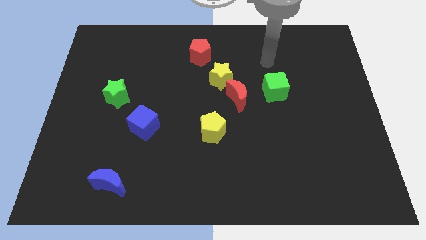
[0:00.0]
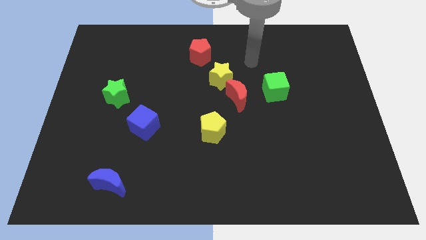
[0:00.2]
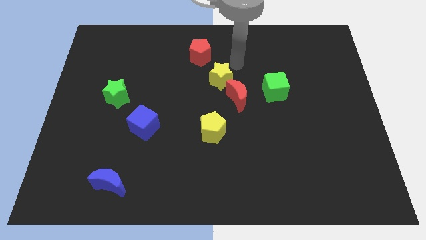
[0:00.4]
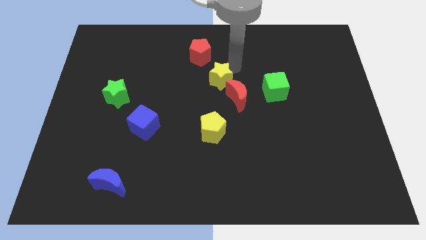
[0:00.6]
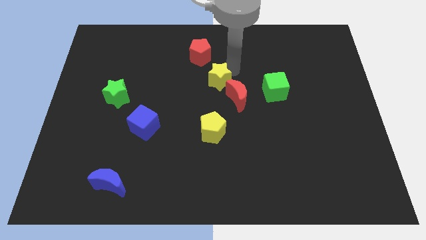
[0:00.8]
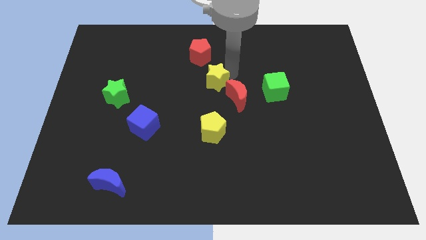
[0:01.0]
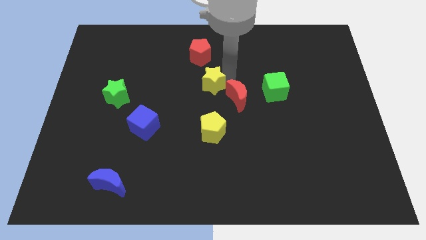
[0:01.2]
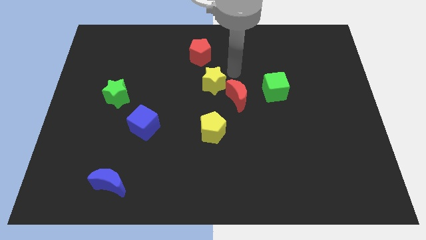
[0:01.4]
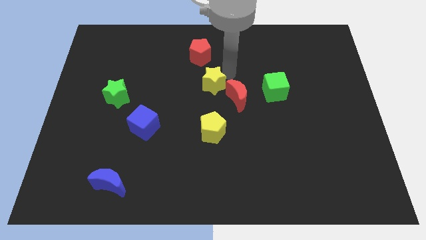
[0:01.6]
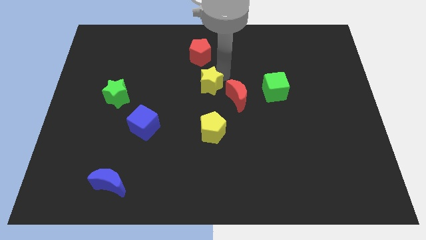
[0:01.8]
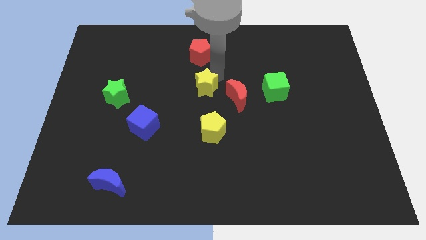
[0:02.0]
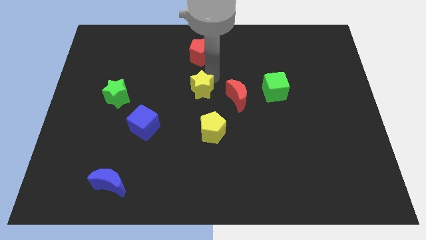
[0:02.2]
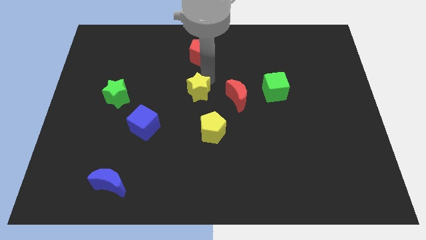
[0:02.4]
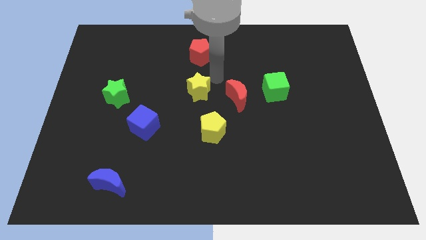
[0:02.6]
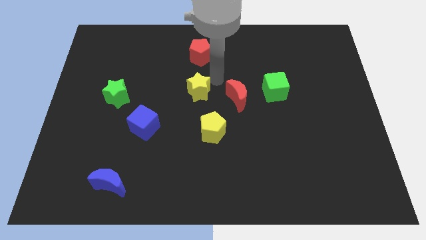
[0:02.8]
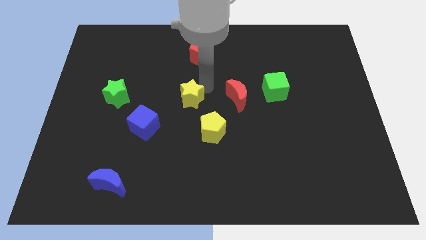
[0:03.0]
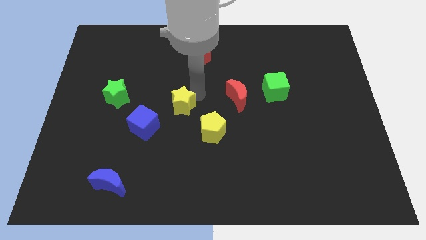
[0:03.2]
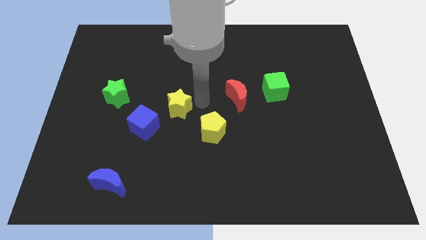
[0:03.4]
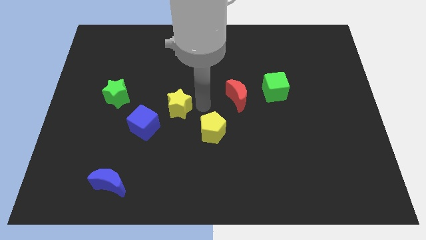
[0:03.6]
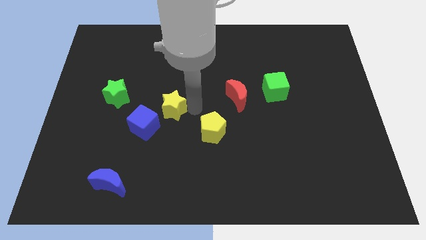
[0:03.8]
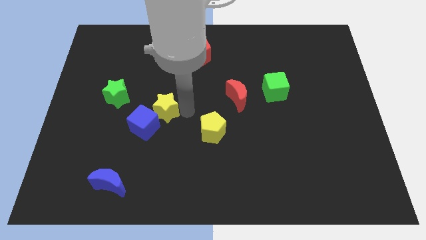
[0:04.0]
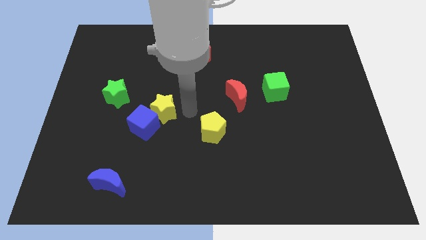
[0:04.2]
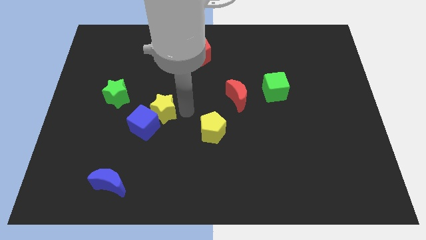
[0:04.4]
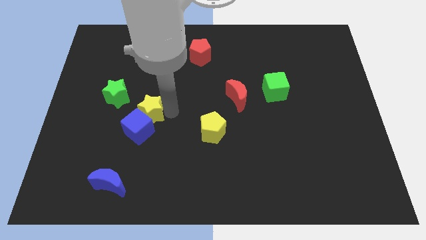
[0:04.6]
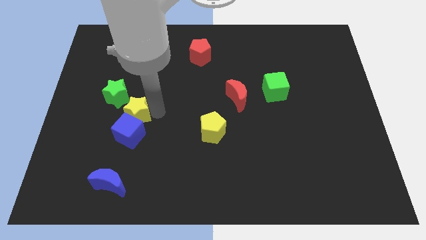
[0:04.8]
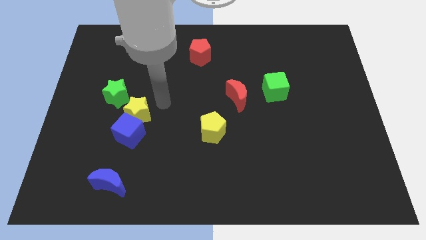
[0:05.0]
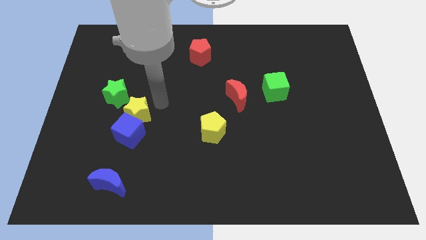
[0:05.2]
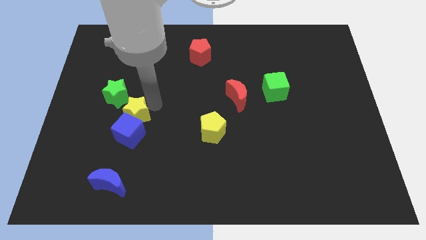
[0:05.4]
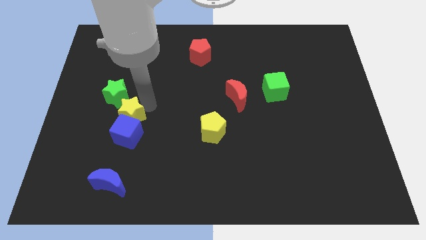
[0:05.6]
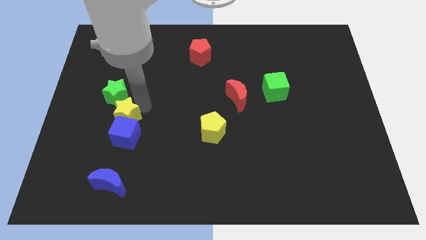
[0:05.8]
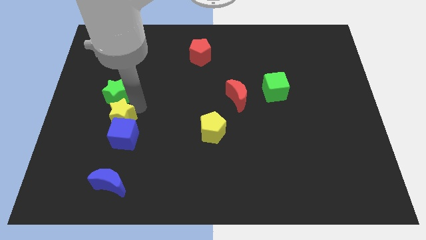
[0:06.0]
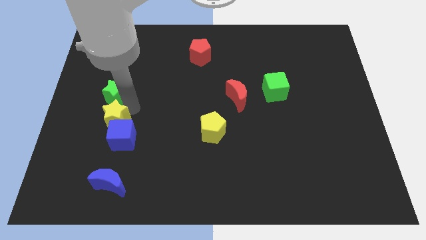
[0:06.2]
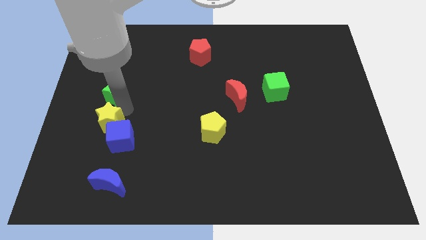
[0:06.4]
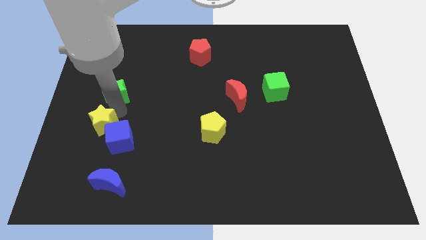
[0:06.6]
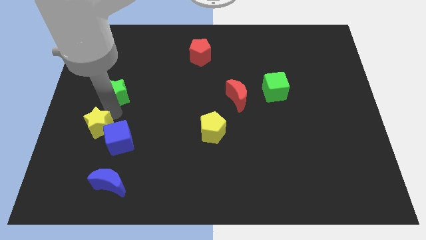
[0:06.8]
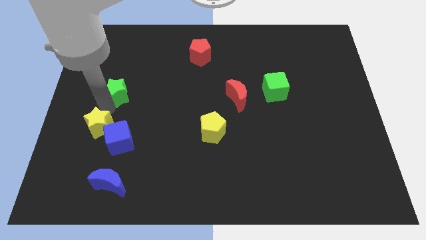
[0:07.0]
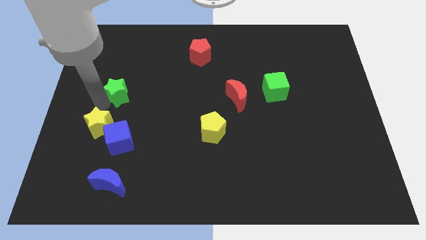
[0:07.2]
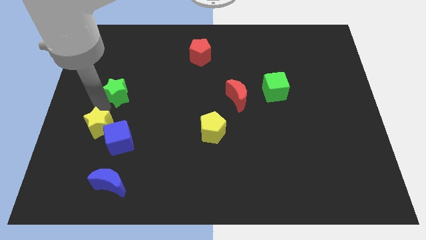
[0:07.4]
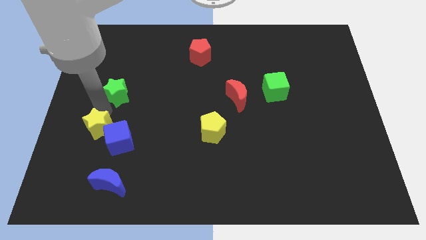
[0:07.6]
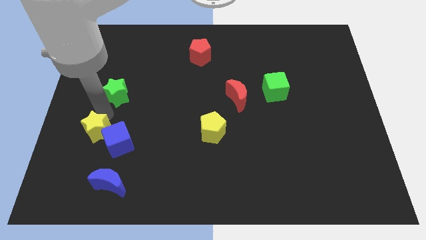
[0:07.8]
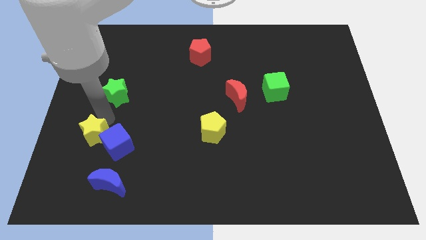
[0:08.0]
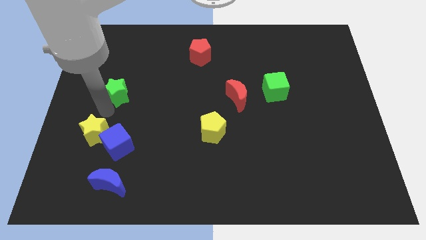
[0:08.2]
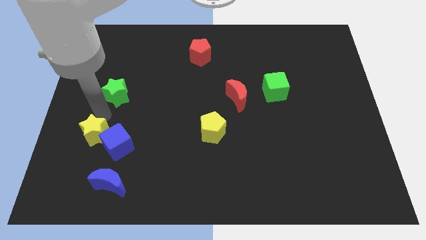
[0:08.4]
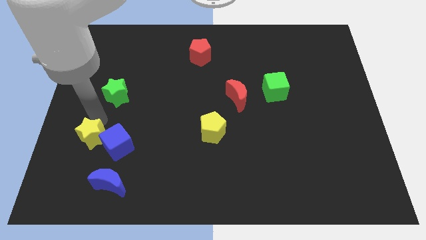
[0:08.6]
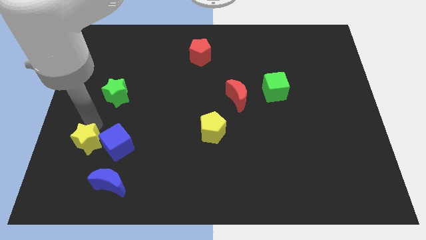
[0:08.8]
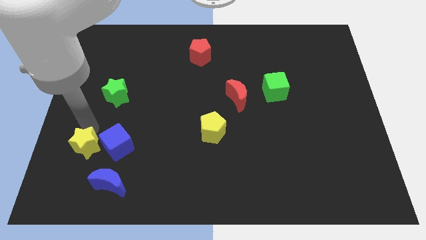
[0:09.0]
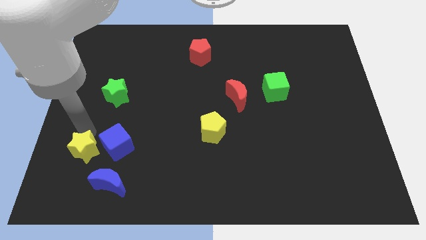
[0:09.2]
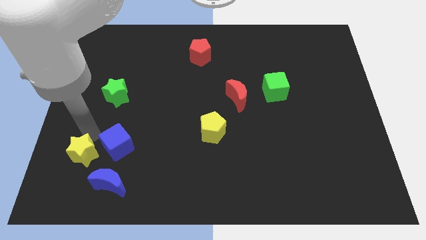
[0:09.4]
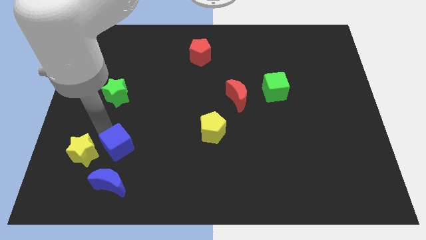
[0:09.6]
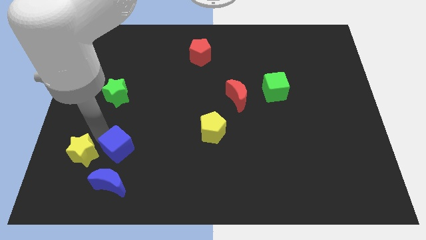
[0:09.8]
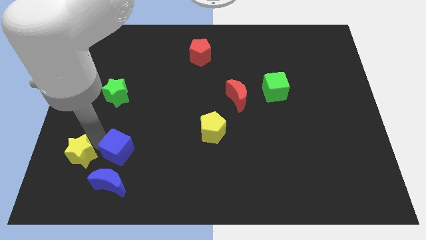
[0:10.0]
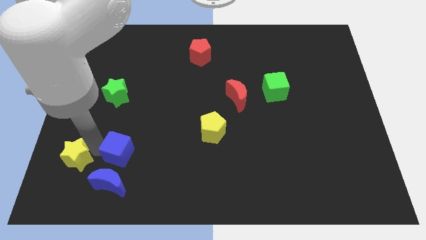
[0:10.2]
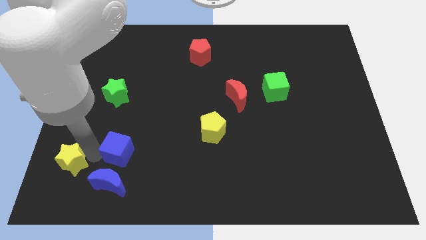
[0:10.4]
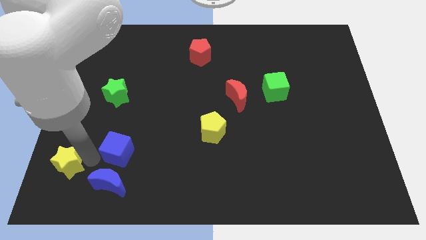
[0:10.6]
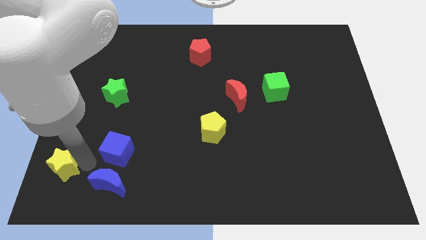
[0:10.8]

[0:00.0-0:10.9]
put the yellow star to the bottom left corner

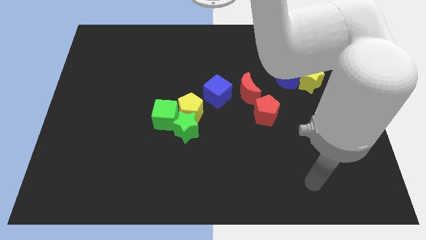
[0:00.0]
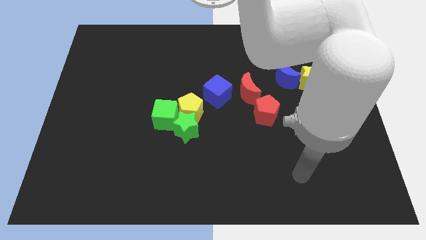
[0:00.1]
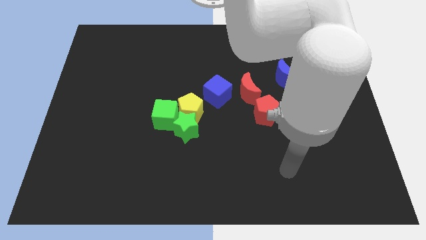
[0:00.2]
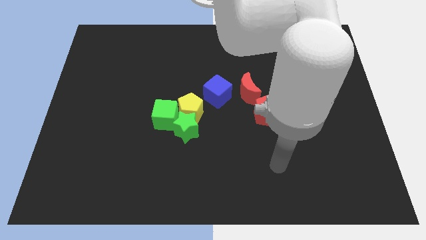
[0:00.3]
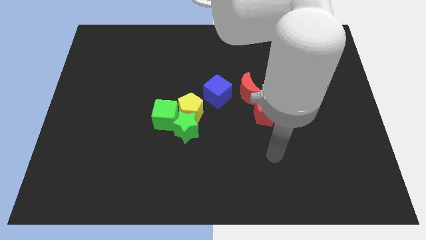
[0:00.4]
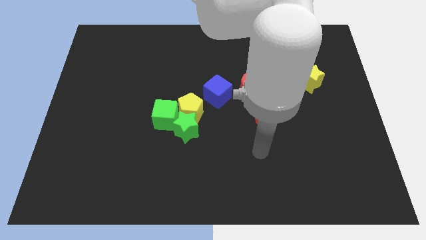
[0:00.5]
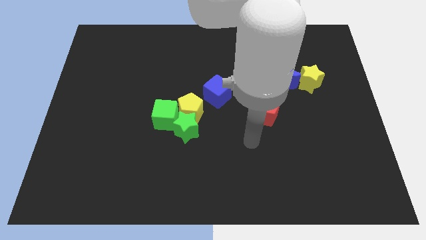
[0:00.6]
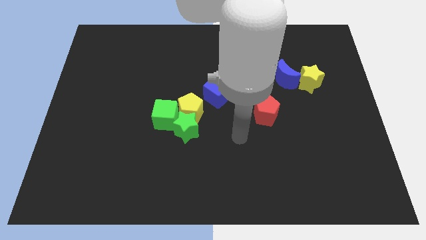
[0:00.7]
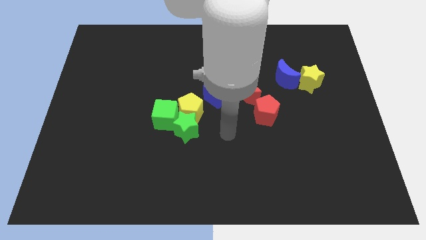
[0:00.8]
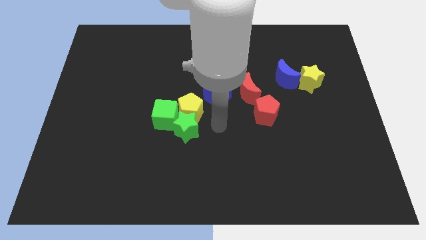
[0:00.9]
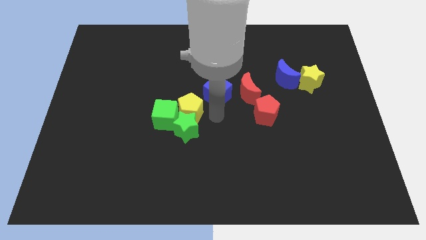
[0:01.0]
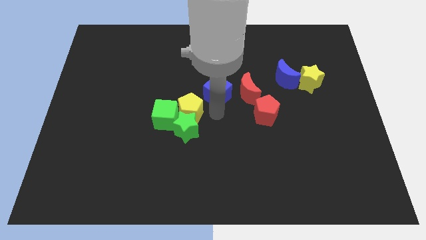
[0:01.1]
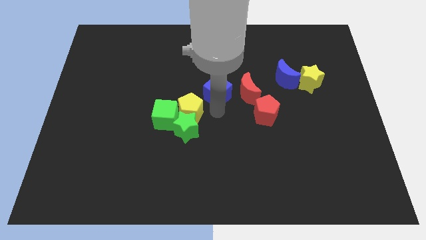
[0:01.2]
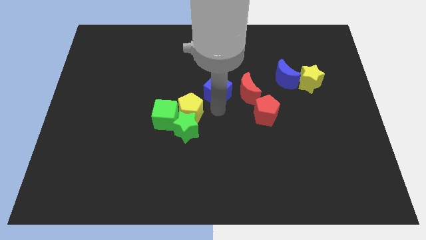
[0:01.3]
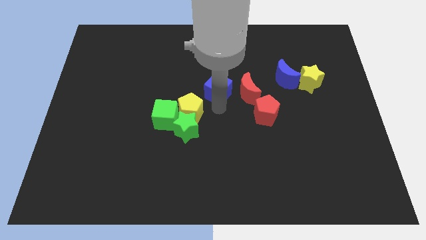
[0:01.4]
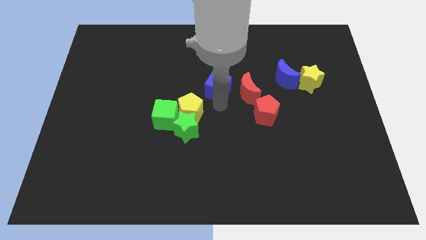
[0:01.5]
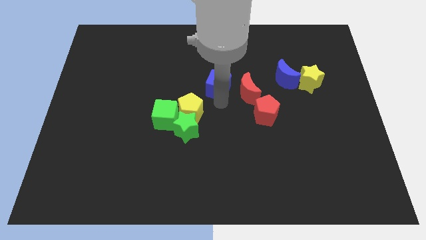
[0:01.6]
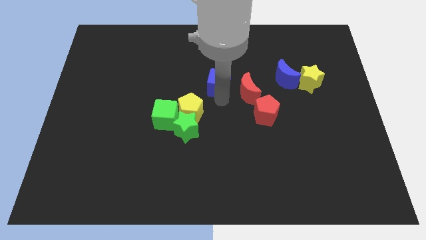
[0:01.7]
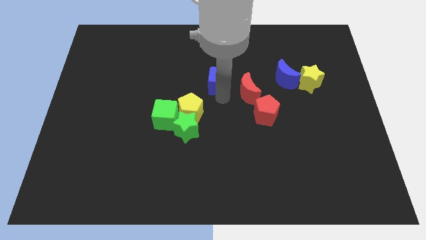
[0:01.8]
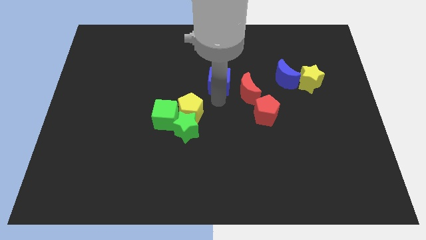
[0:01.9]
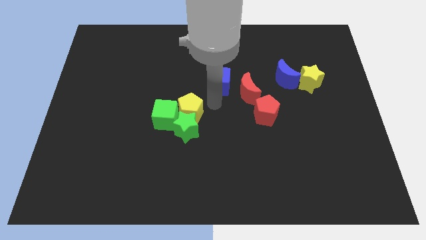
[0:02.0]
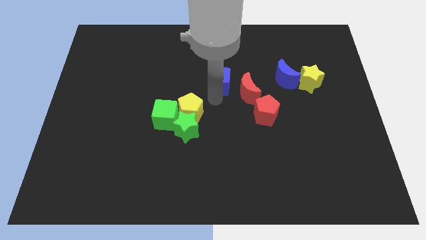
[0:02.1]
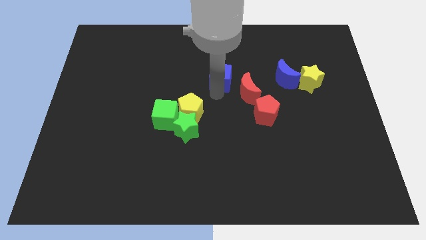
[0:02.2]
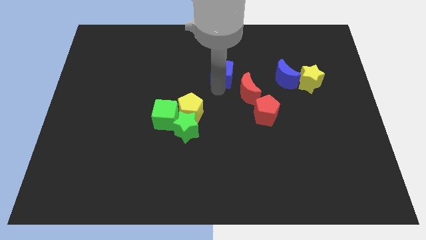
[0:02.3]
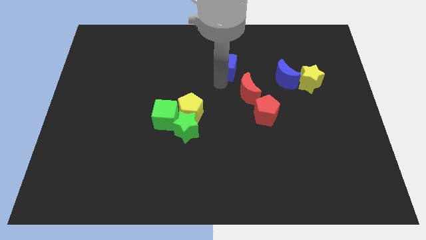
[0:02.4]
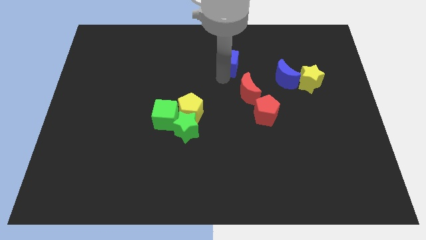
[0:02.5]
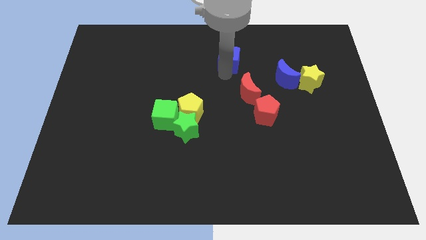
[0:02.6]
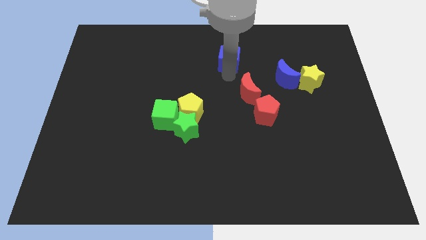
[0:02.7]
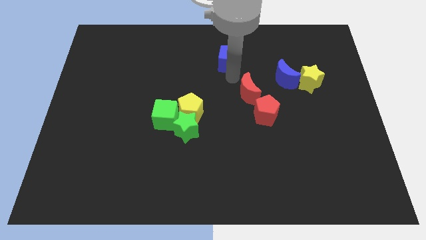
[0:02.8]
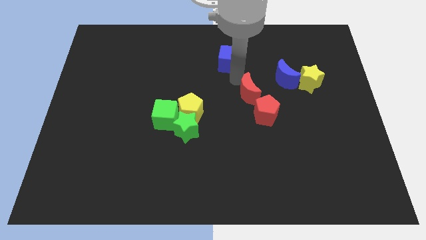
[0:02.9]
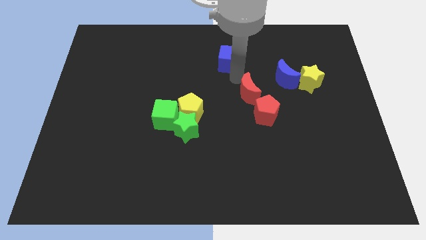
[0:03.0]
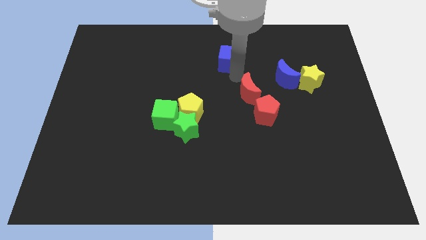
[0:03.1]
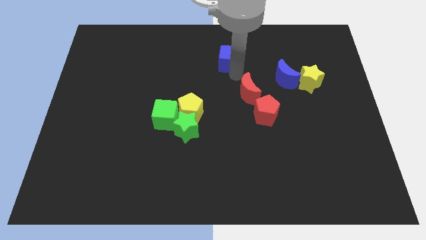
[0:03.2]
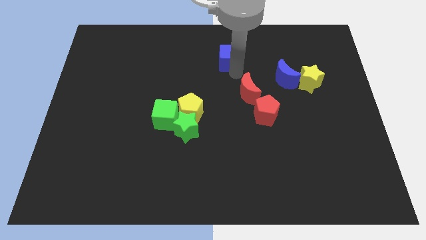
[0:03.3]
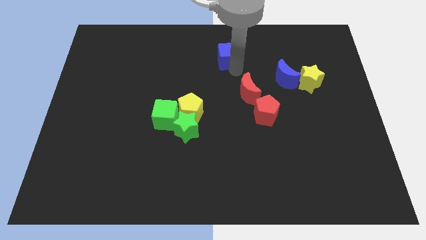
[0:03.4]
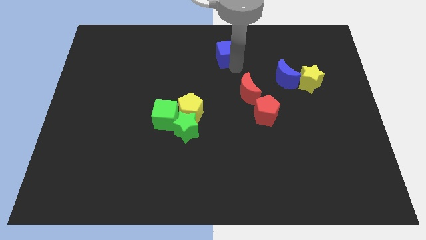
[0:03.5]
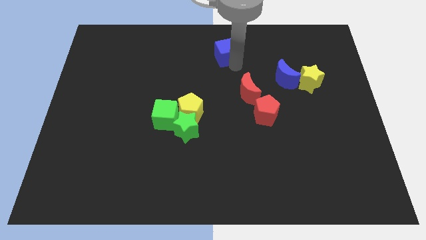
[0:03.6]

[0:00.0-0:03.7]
slide the blue cube to the top side
